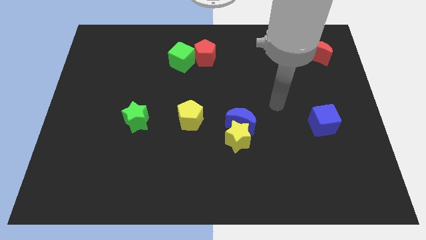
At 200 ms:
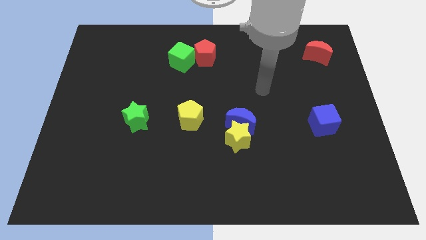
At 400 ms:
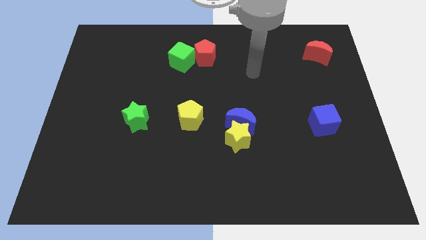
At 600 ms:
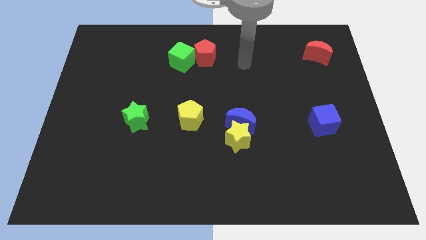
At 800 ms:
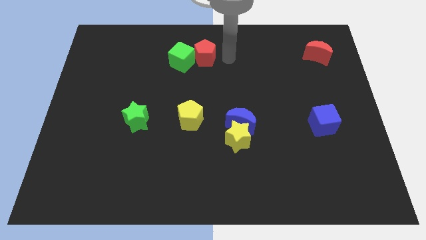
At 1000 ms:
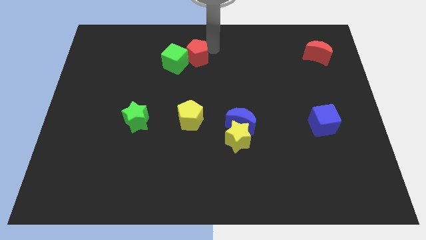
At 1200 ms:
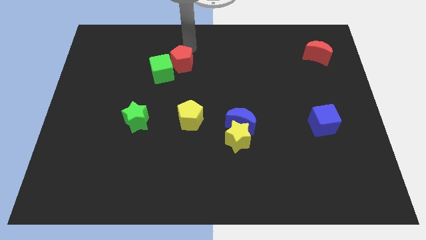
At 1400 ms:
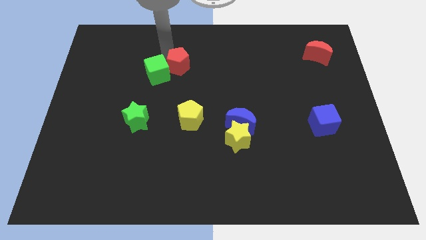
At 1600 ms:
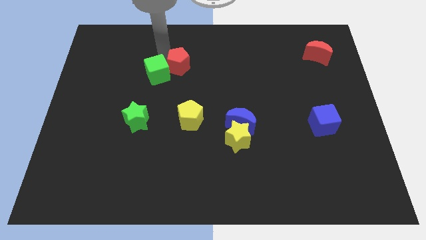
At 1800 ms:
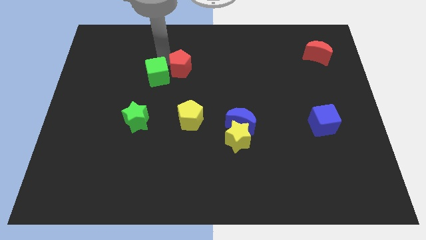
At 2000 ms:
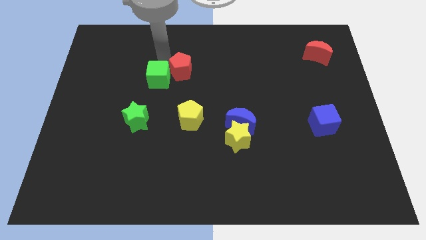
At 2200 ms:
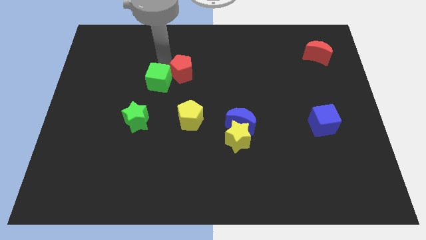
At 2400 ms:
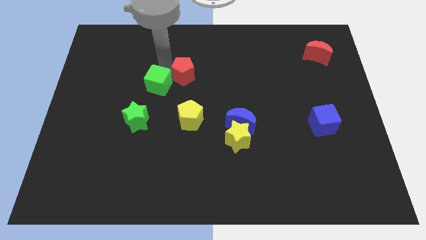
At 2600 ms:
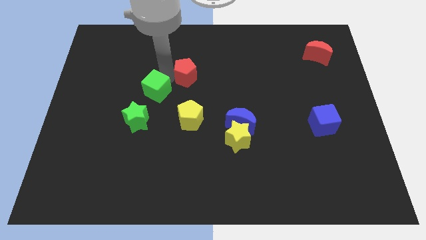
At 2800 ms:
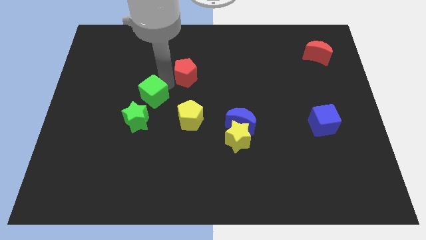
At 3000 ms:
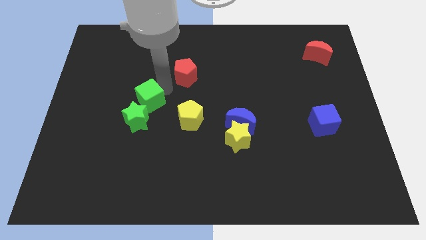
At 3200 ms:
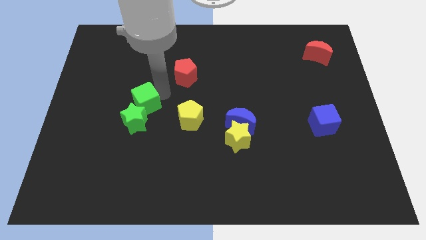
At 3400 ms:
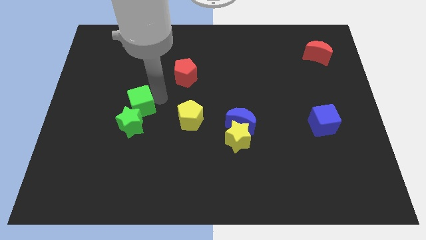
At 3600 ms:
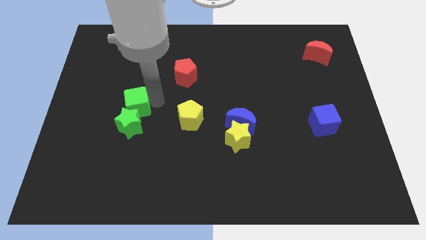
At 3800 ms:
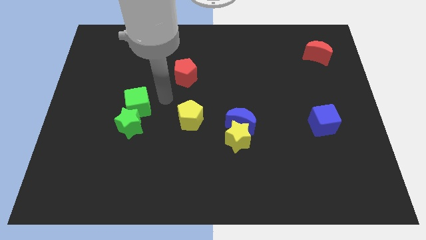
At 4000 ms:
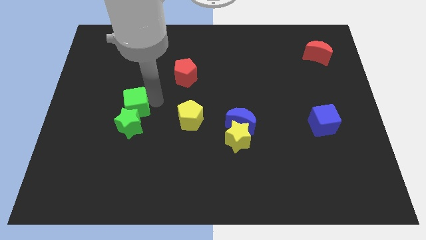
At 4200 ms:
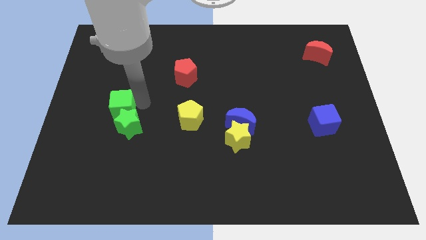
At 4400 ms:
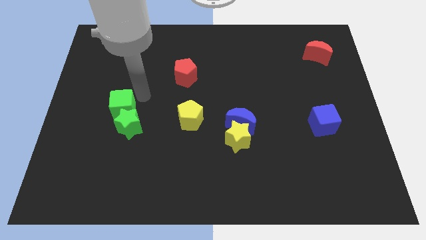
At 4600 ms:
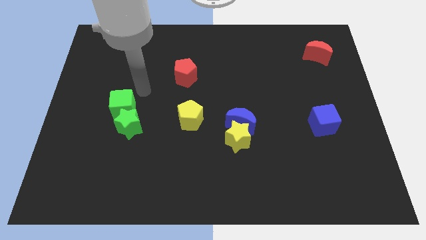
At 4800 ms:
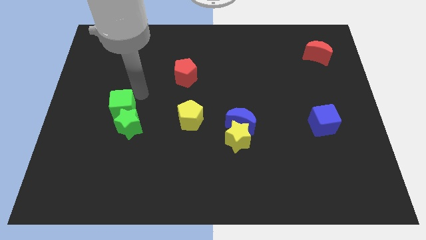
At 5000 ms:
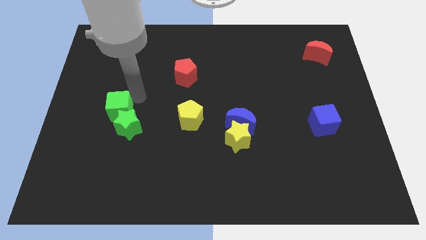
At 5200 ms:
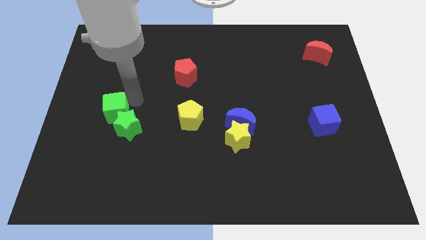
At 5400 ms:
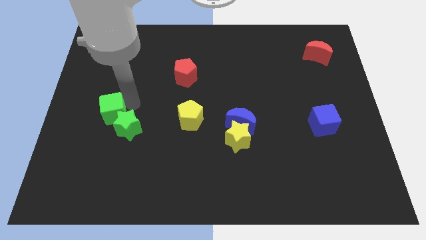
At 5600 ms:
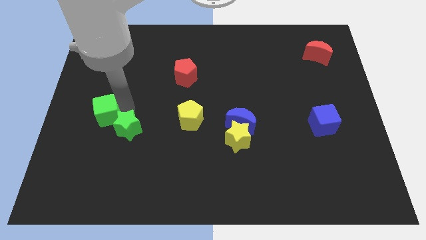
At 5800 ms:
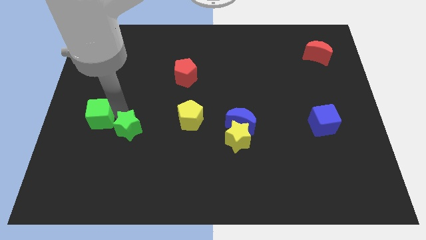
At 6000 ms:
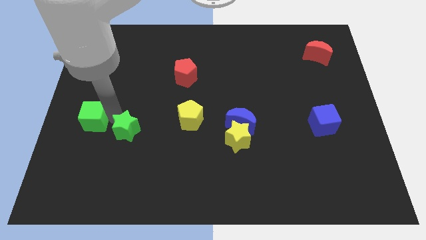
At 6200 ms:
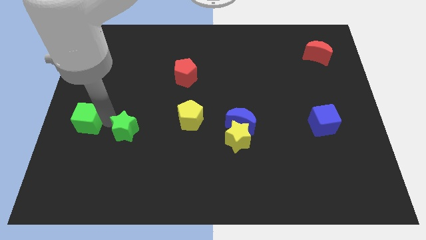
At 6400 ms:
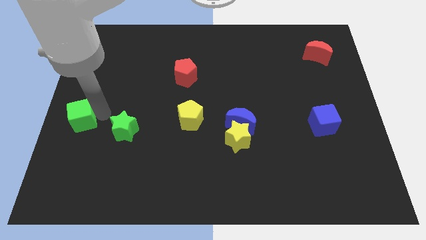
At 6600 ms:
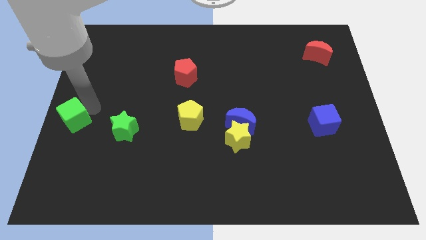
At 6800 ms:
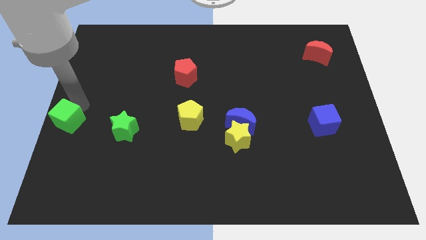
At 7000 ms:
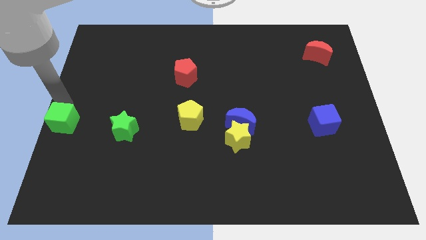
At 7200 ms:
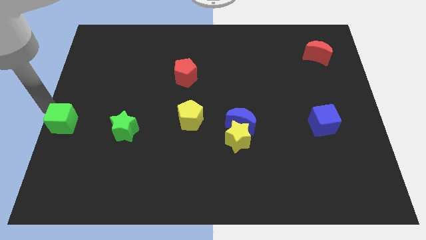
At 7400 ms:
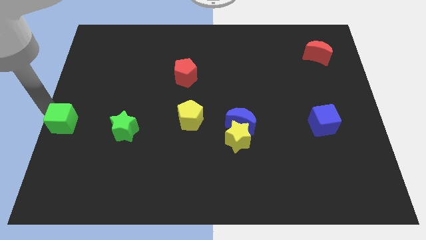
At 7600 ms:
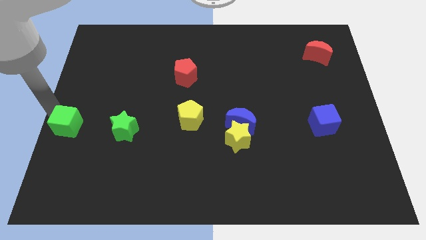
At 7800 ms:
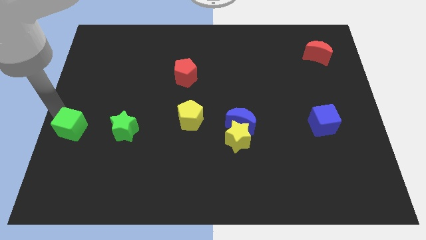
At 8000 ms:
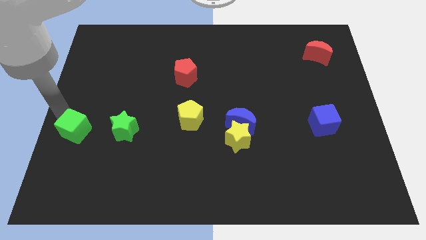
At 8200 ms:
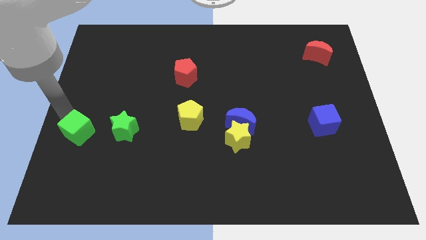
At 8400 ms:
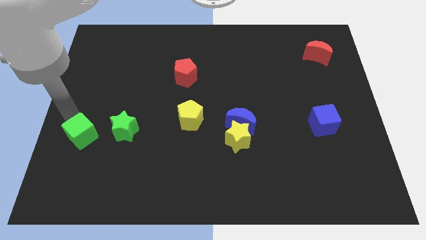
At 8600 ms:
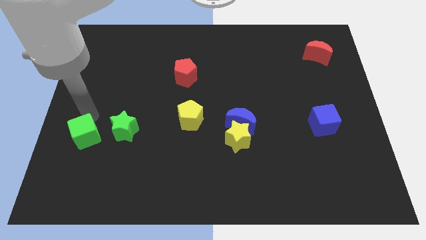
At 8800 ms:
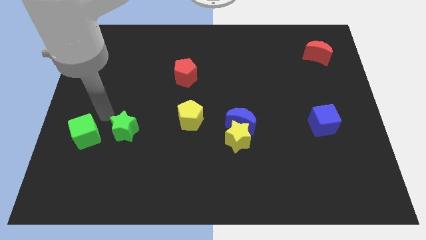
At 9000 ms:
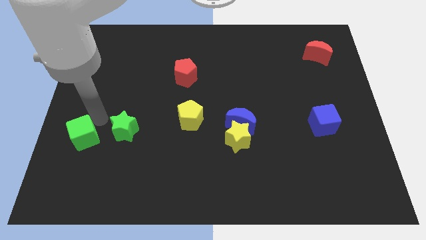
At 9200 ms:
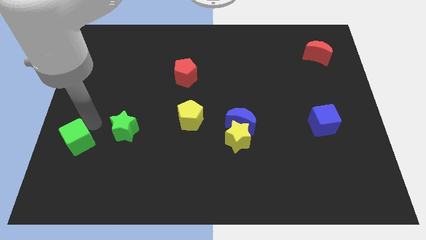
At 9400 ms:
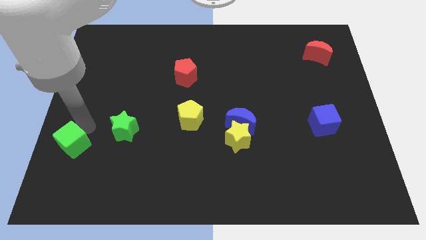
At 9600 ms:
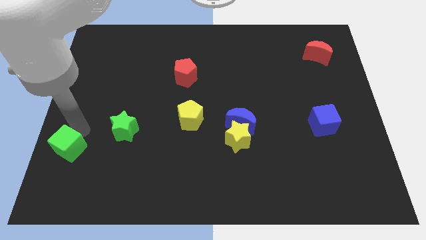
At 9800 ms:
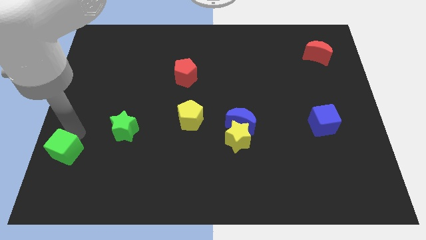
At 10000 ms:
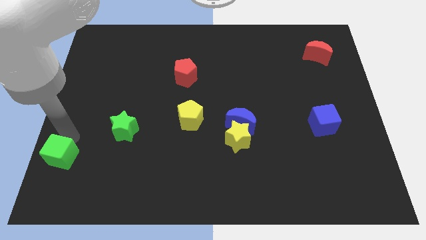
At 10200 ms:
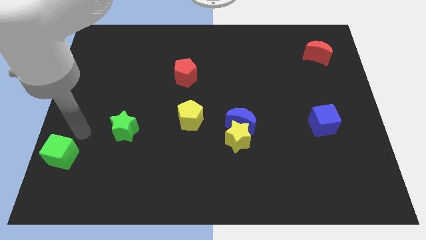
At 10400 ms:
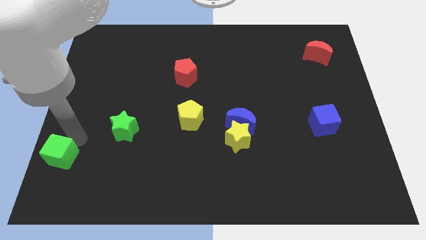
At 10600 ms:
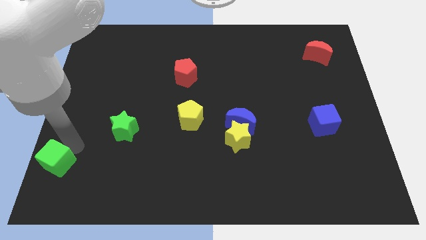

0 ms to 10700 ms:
slide the green cube to the lower left corner
